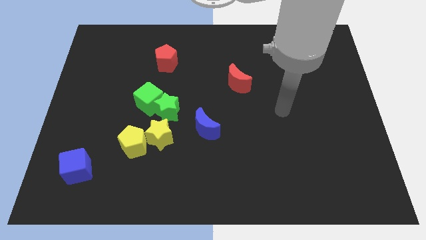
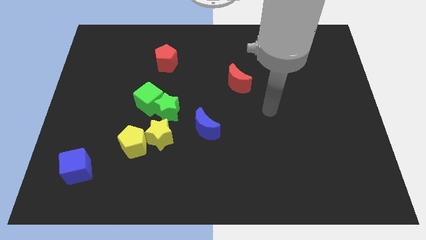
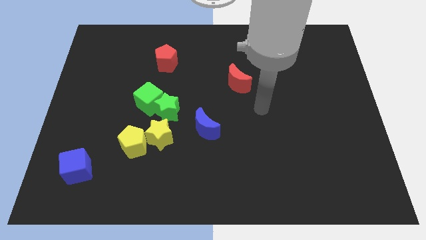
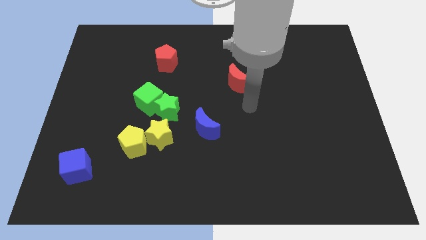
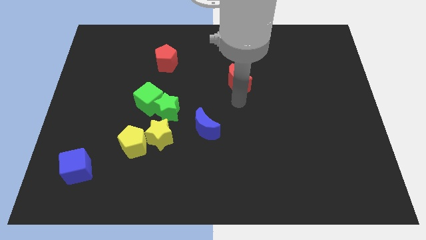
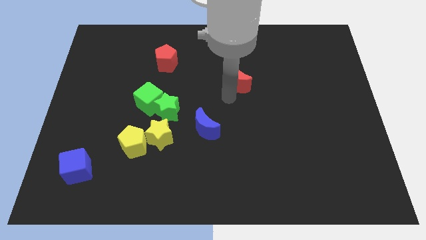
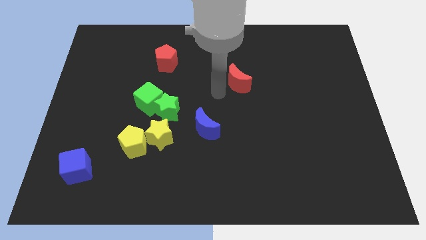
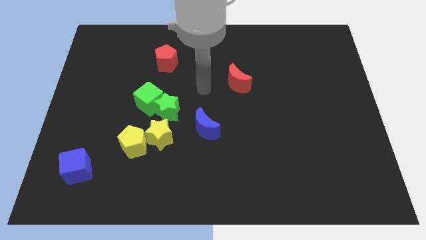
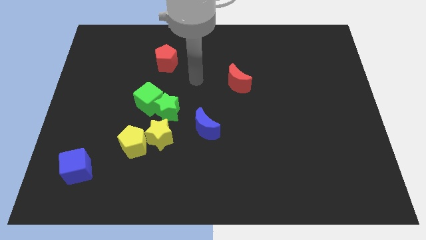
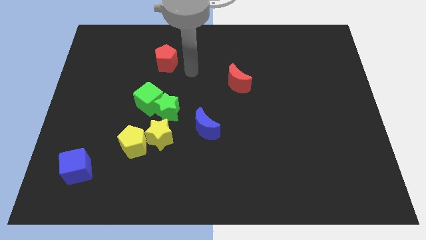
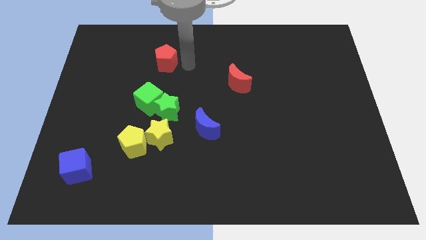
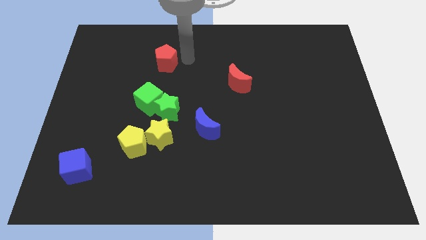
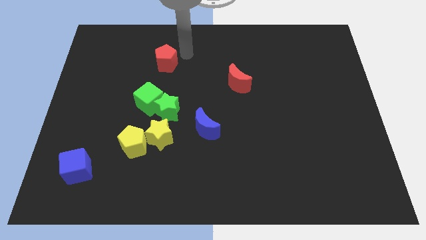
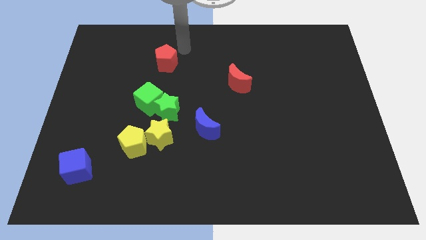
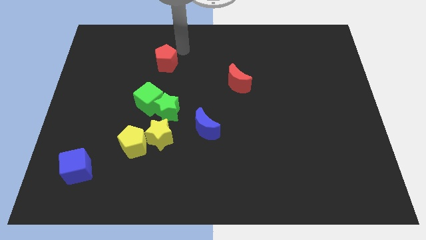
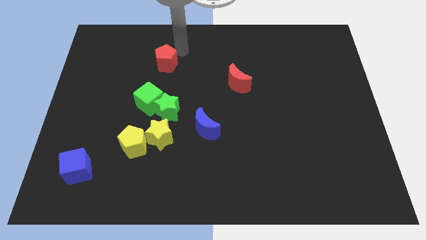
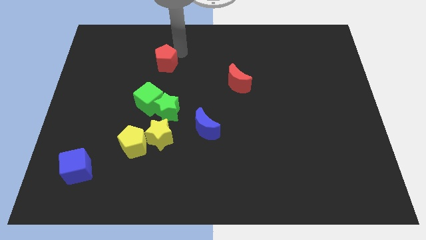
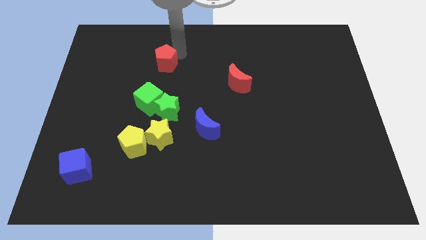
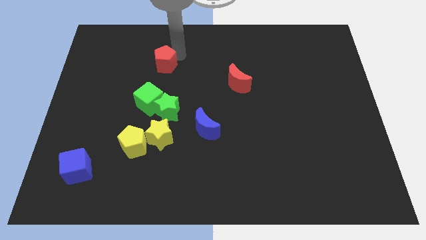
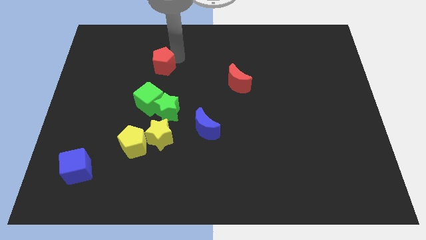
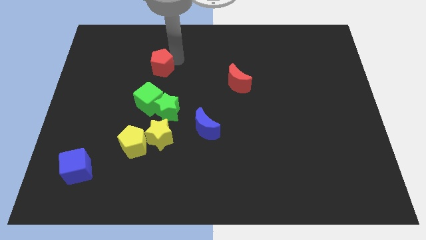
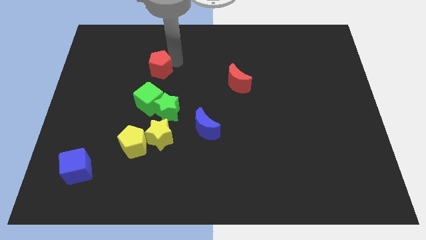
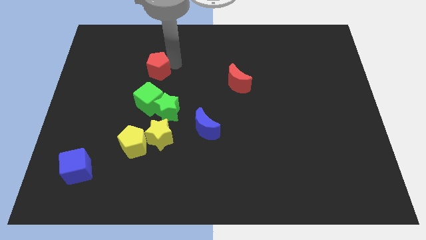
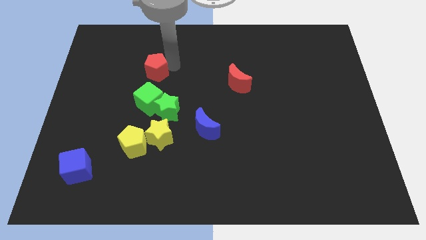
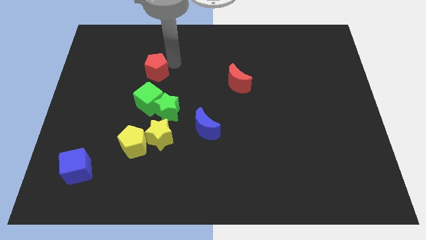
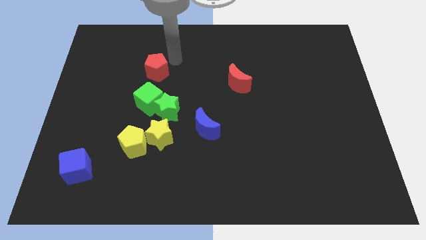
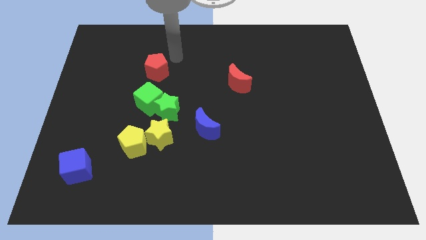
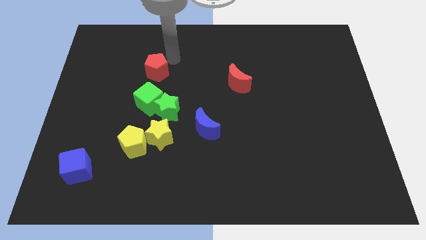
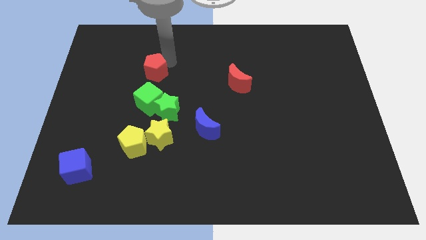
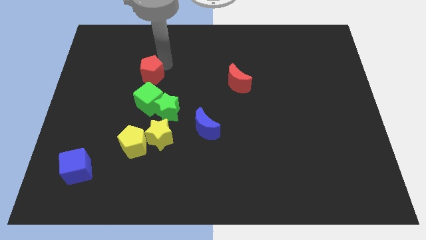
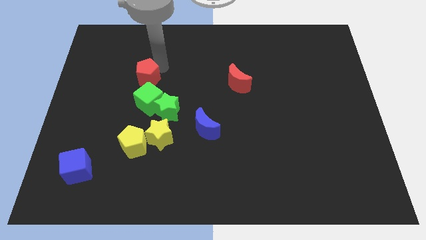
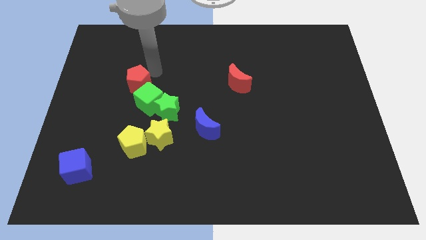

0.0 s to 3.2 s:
slide the red pentagon downwards and then left a bit

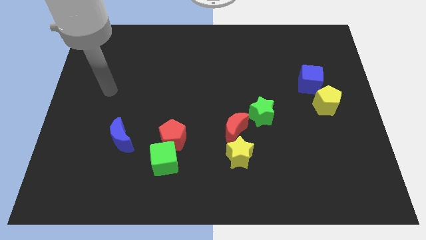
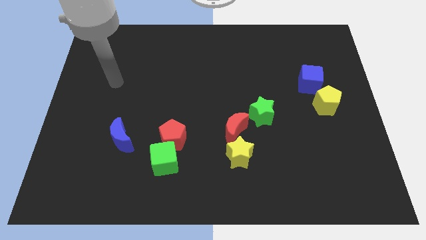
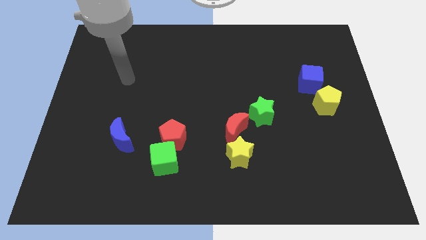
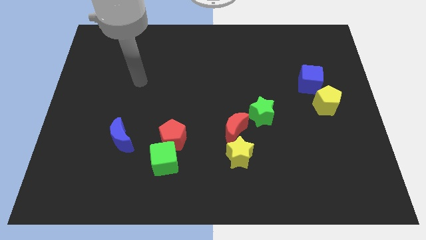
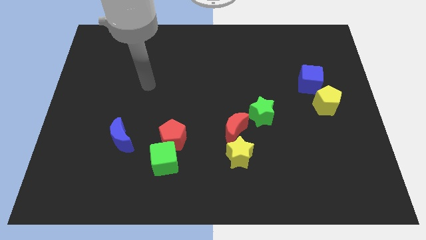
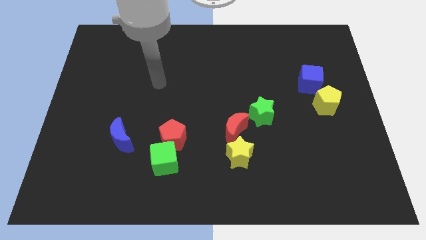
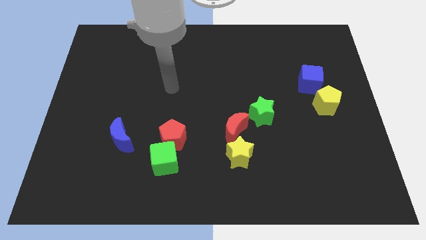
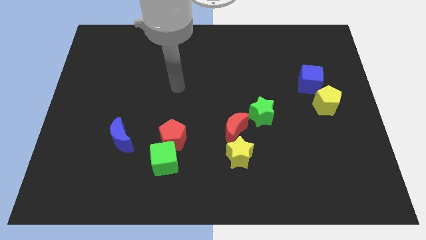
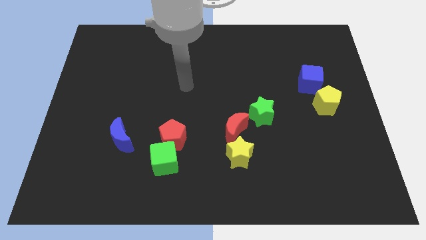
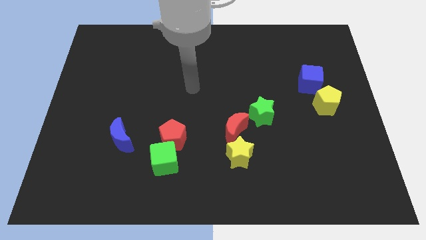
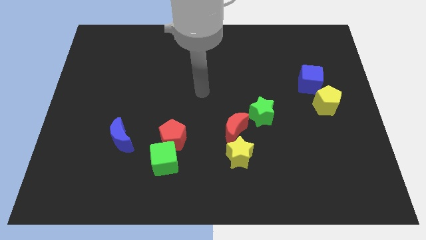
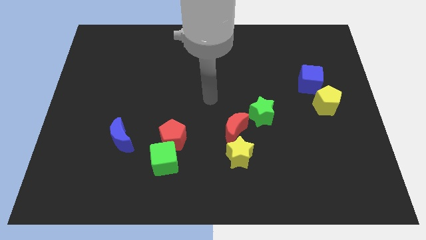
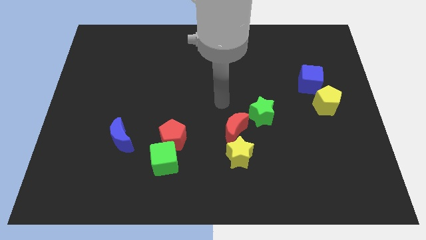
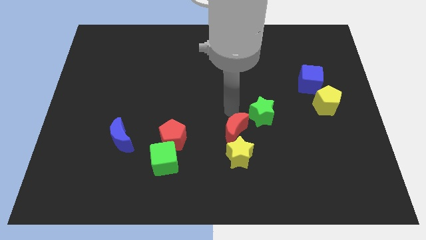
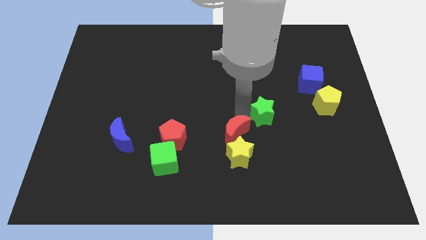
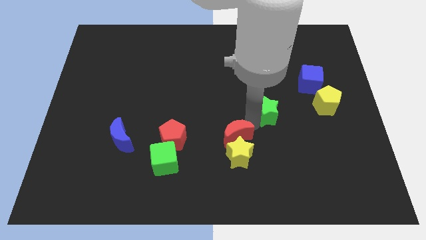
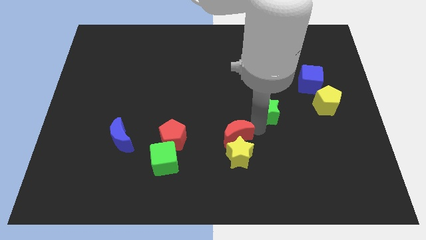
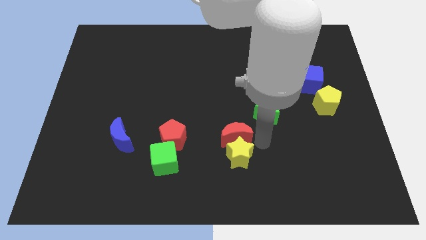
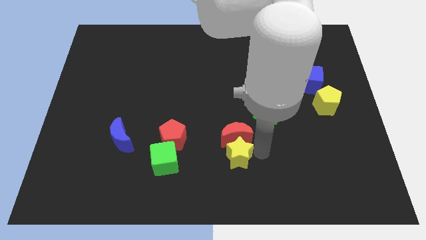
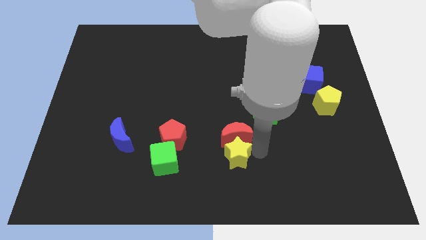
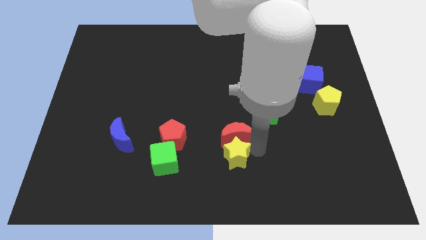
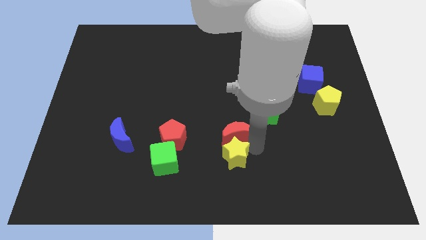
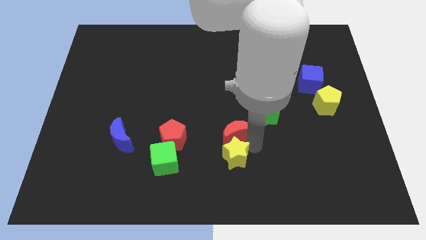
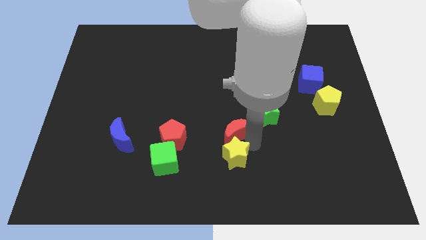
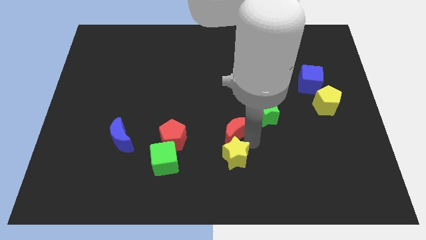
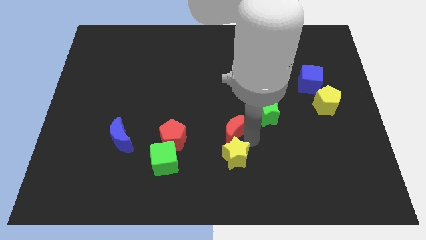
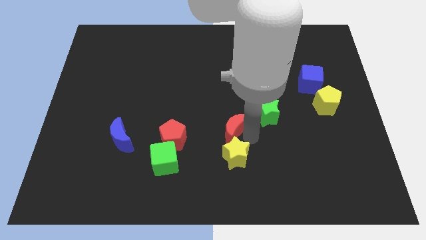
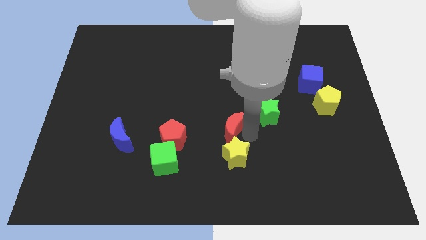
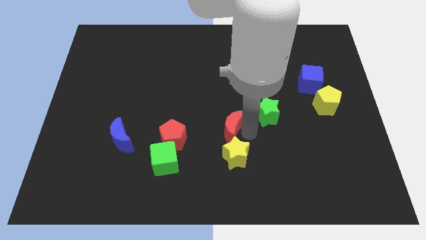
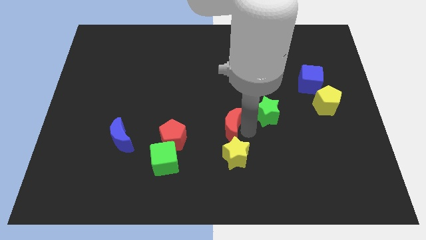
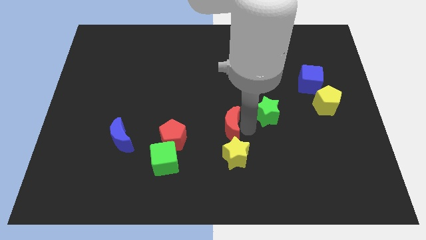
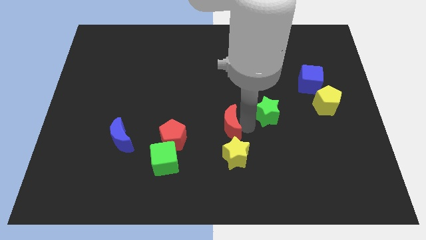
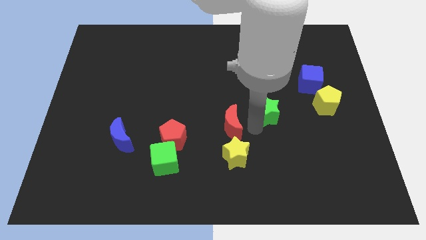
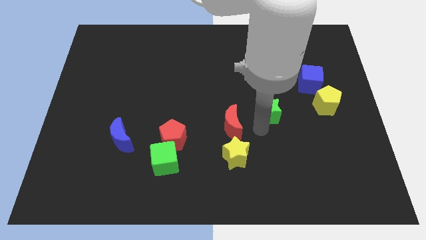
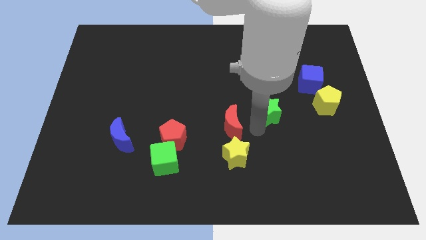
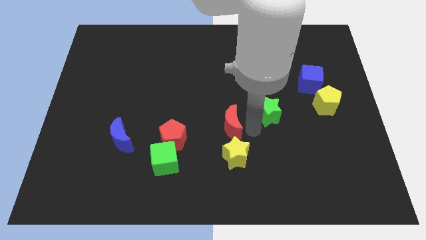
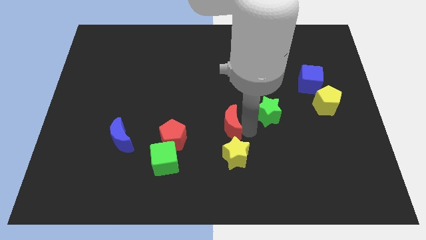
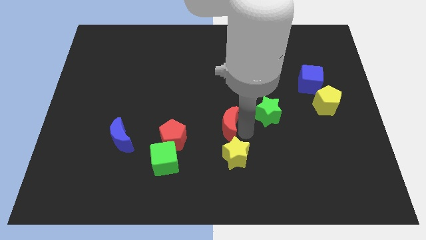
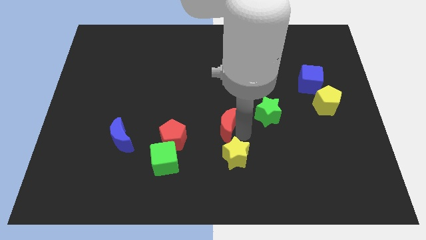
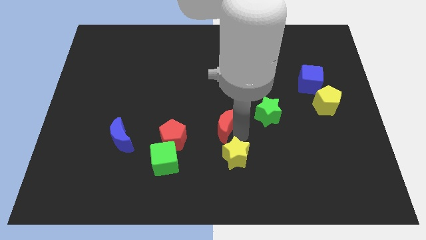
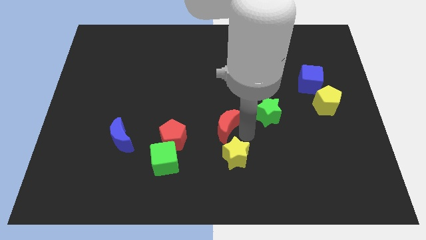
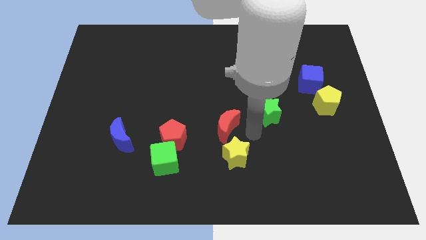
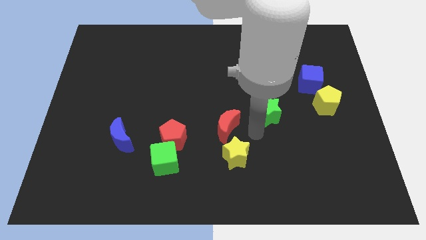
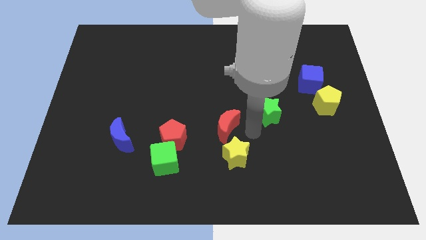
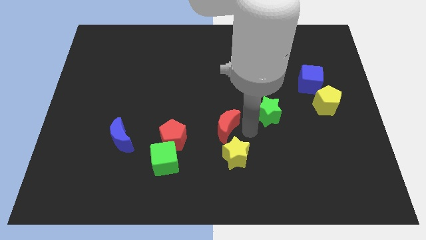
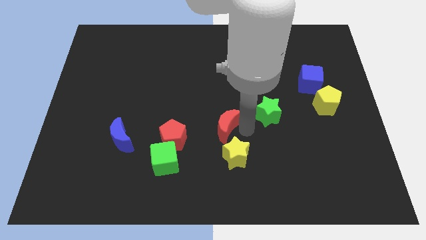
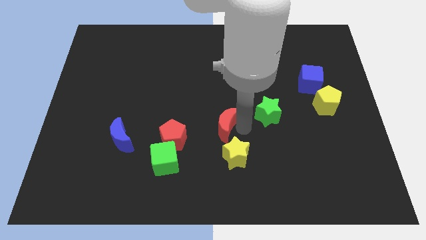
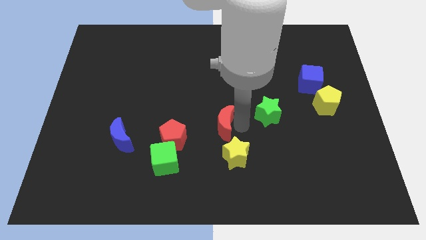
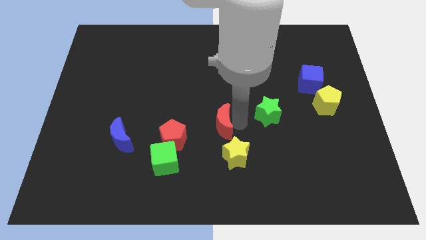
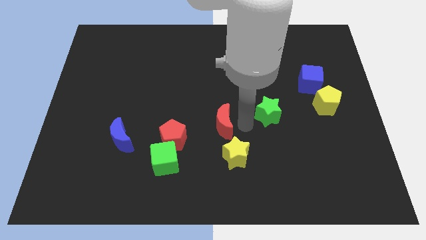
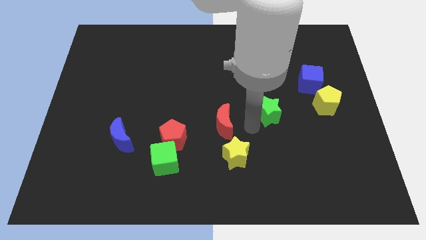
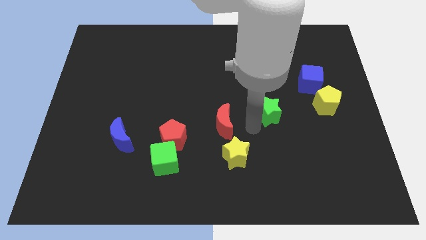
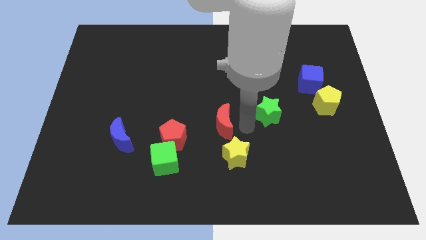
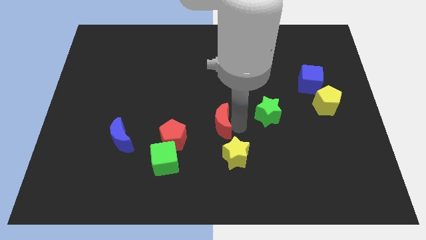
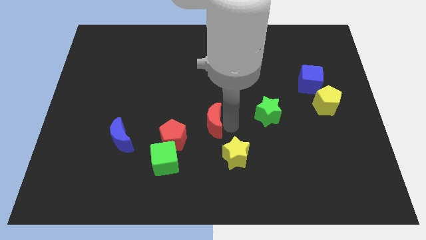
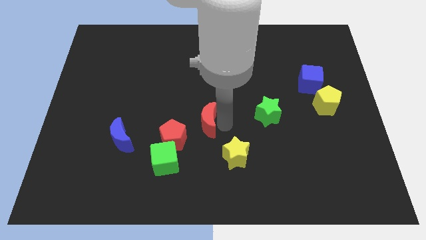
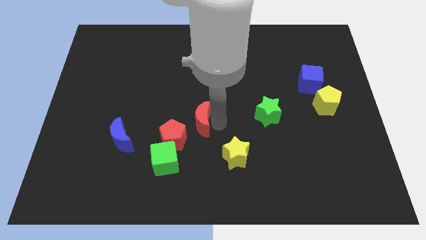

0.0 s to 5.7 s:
slide the red moon slightly to the left
